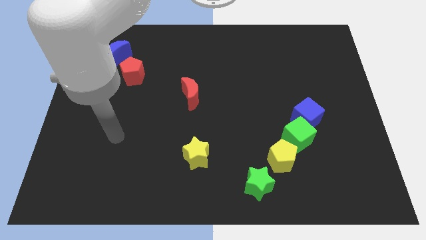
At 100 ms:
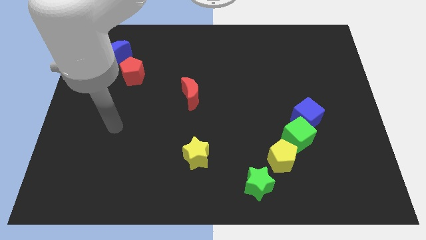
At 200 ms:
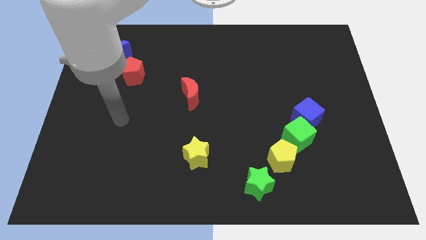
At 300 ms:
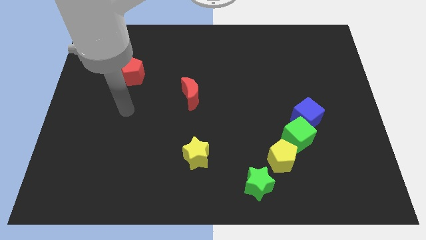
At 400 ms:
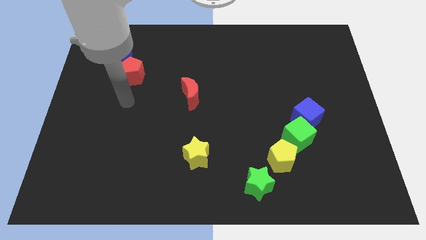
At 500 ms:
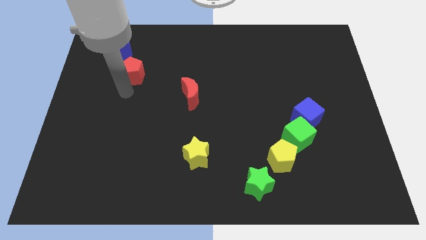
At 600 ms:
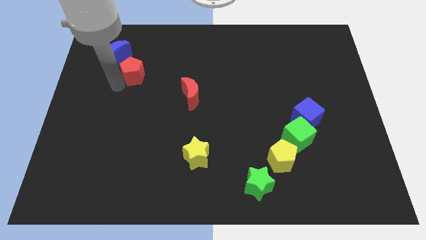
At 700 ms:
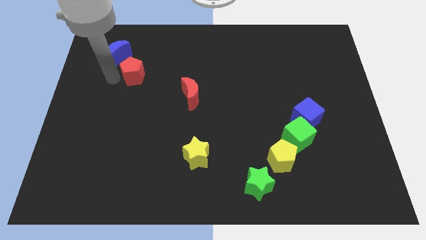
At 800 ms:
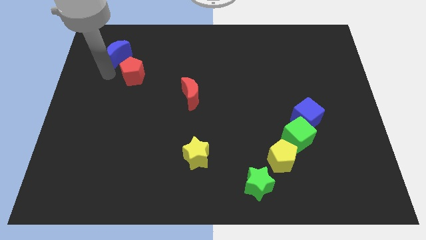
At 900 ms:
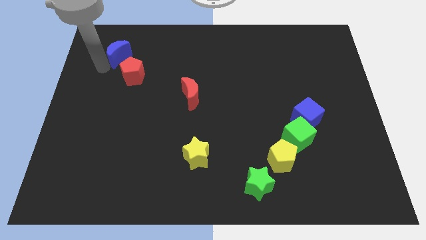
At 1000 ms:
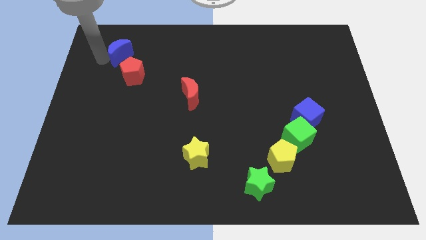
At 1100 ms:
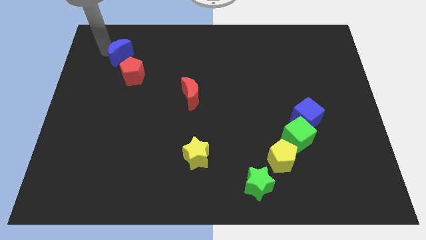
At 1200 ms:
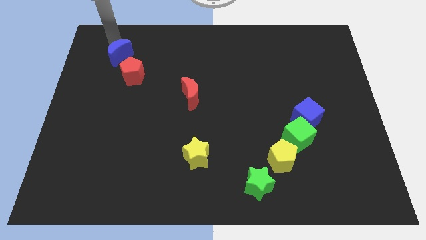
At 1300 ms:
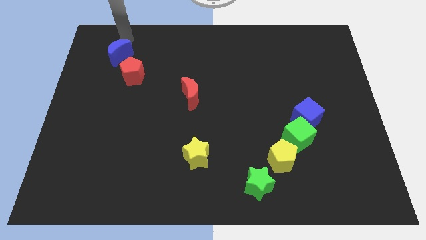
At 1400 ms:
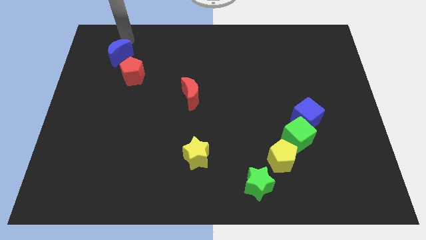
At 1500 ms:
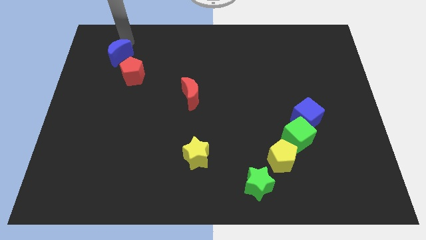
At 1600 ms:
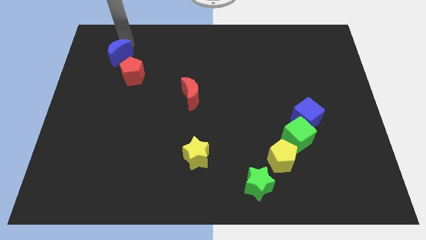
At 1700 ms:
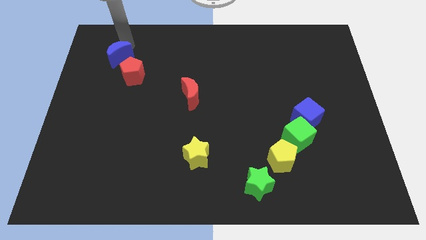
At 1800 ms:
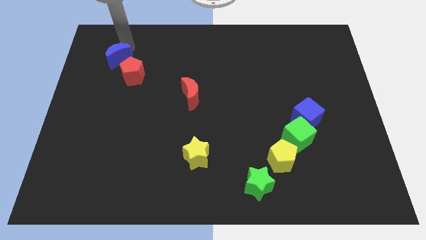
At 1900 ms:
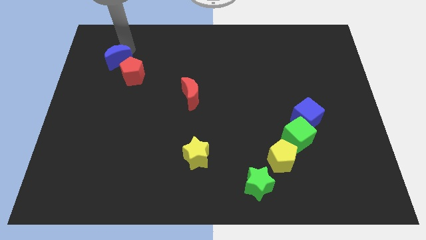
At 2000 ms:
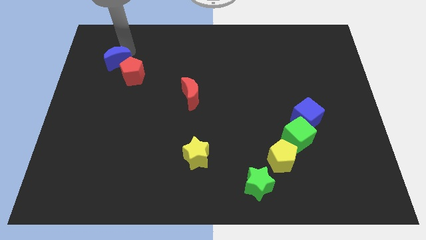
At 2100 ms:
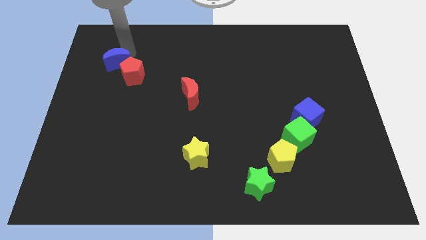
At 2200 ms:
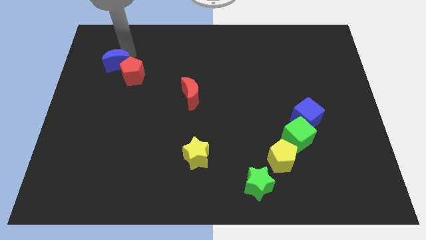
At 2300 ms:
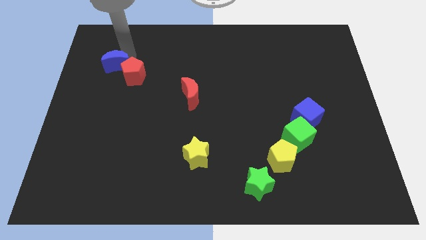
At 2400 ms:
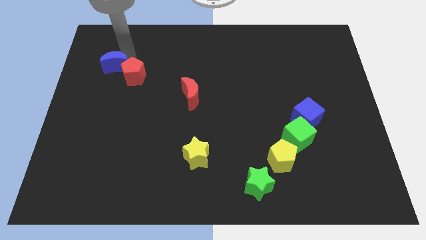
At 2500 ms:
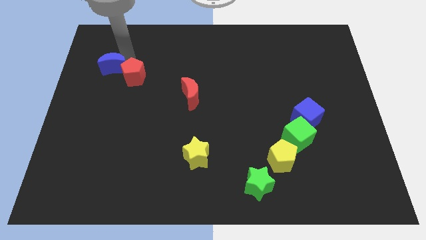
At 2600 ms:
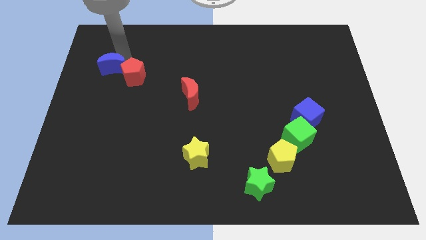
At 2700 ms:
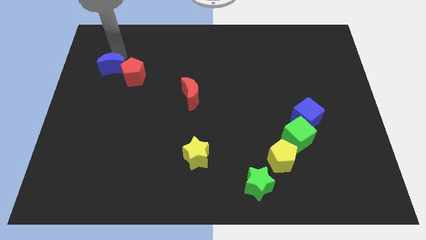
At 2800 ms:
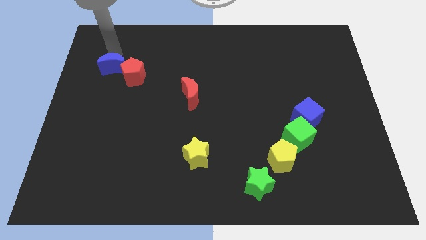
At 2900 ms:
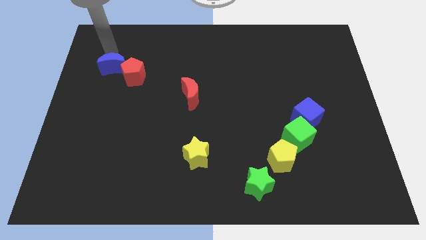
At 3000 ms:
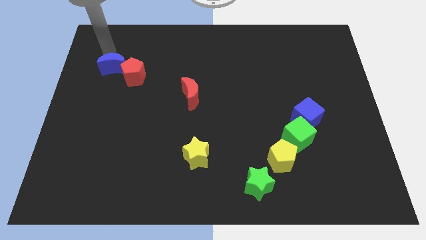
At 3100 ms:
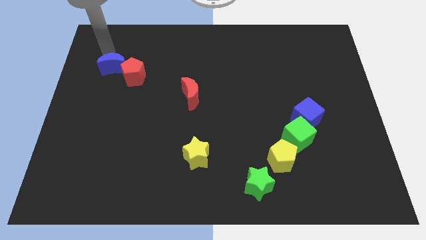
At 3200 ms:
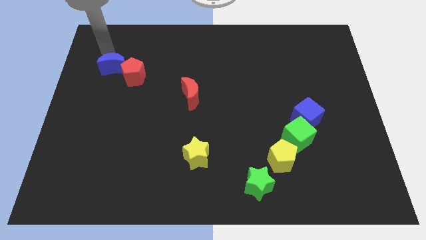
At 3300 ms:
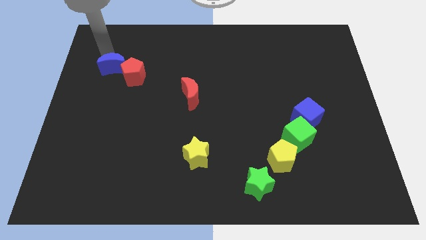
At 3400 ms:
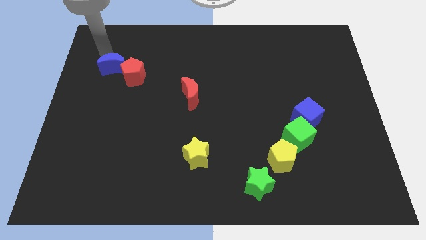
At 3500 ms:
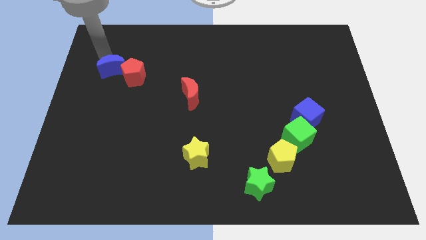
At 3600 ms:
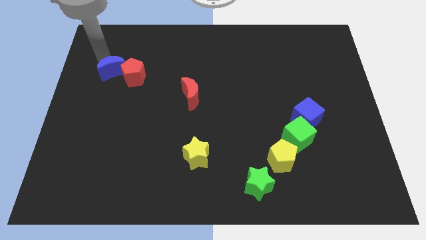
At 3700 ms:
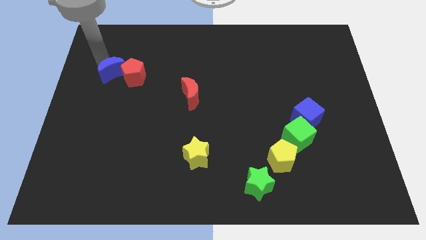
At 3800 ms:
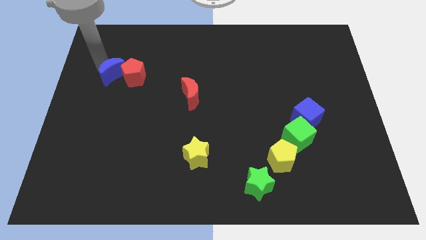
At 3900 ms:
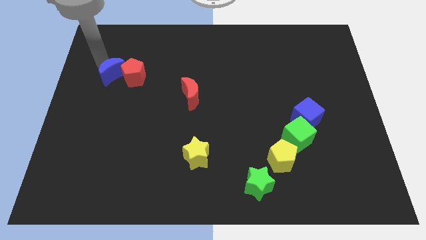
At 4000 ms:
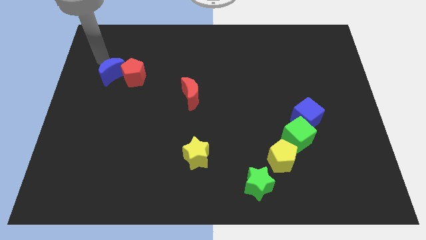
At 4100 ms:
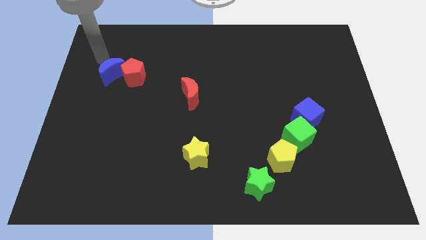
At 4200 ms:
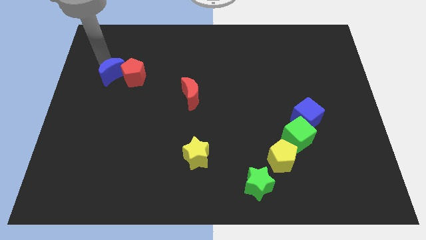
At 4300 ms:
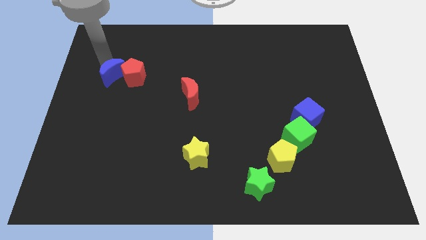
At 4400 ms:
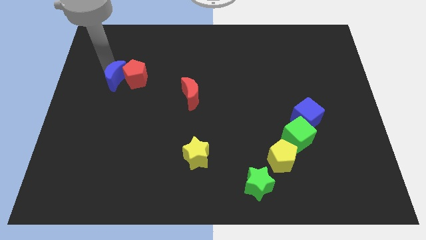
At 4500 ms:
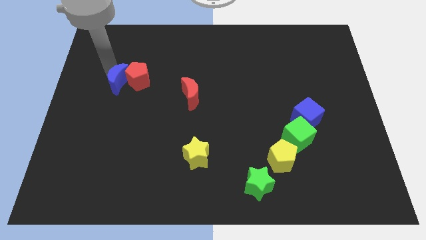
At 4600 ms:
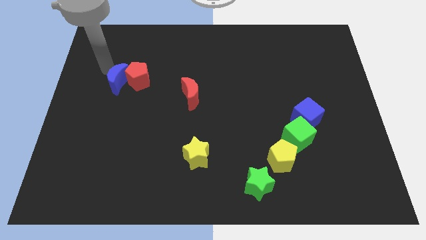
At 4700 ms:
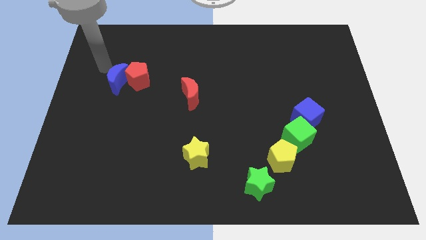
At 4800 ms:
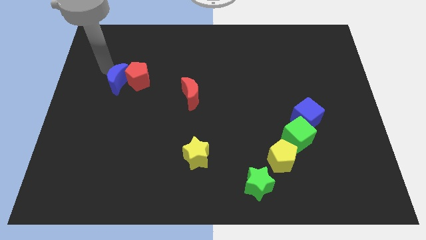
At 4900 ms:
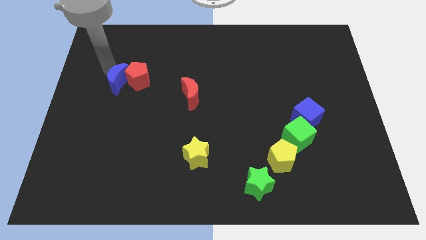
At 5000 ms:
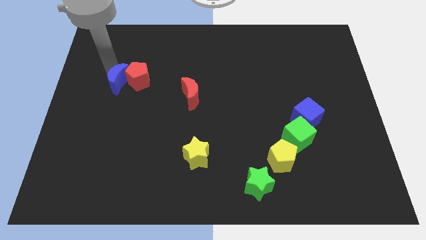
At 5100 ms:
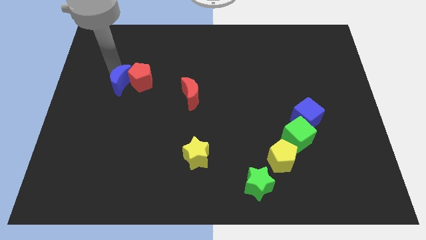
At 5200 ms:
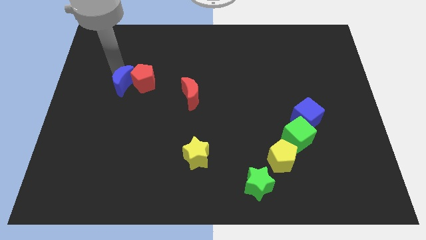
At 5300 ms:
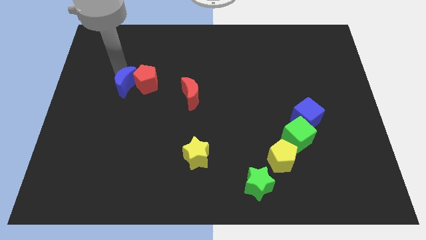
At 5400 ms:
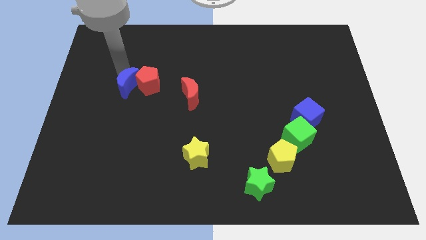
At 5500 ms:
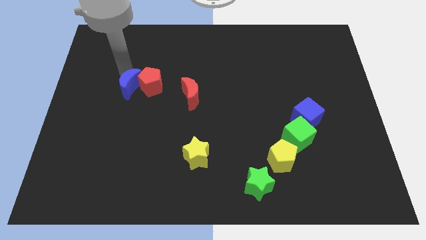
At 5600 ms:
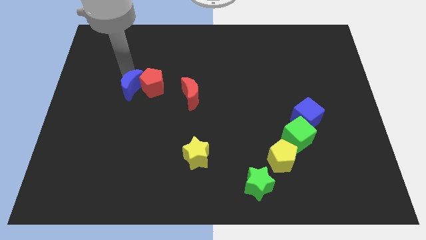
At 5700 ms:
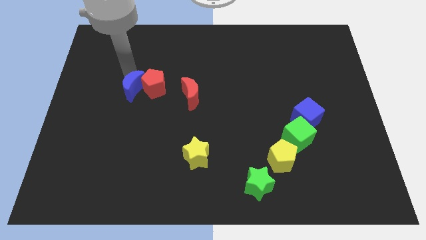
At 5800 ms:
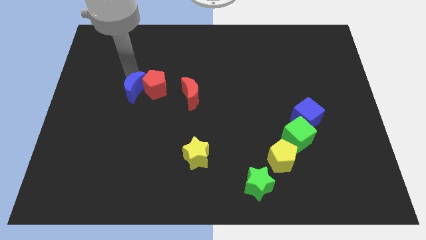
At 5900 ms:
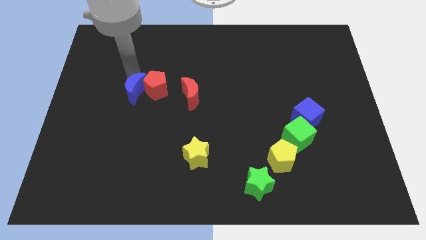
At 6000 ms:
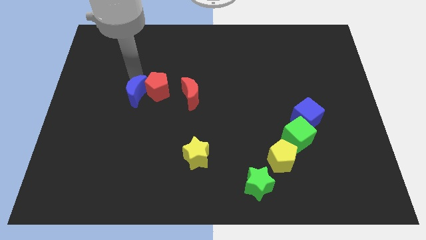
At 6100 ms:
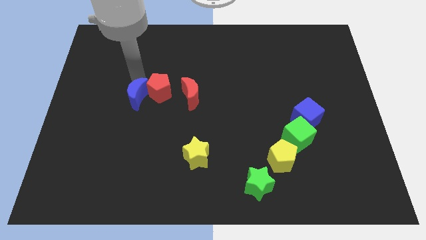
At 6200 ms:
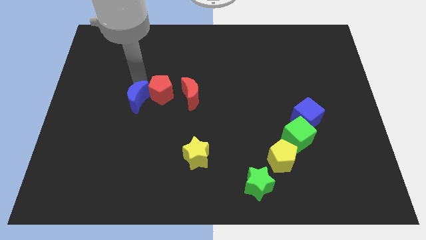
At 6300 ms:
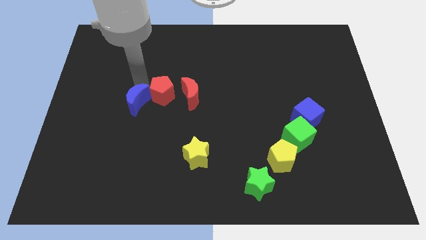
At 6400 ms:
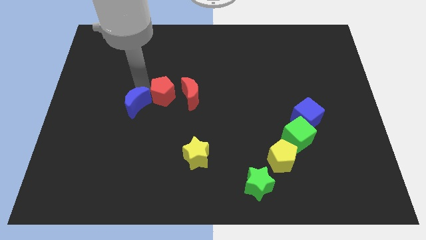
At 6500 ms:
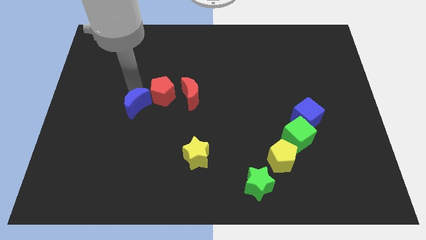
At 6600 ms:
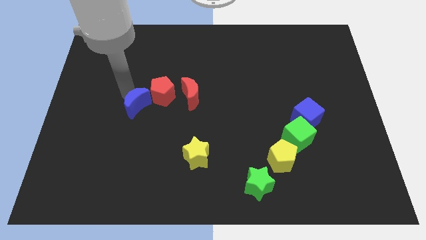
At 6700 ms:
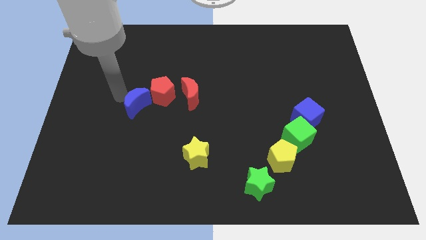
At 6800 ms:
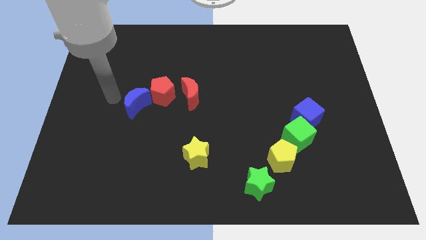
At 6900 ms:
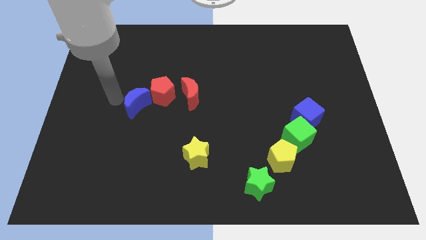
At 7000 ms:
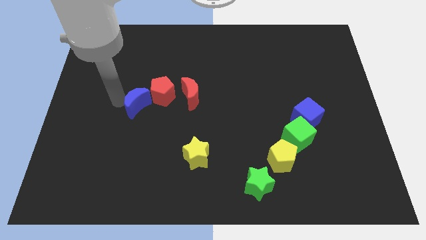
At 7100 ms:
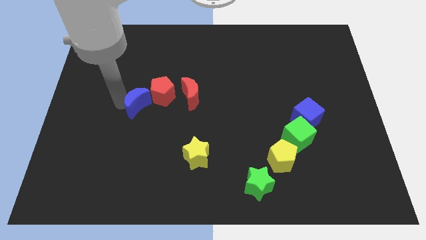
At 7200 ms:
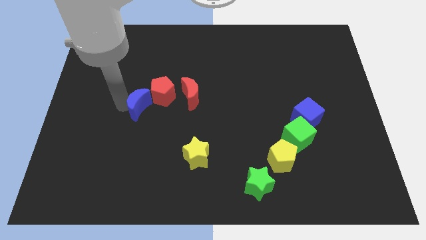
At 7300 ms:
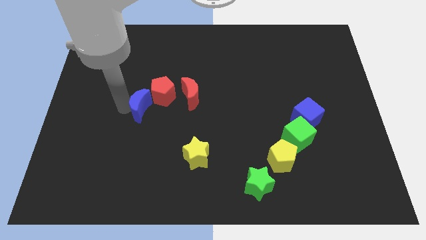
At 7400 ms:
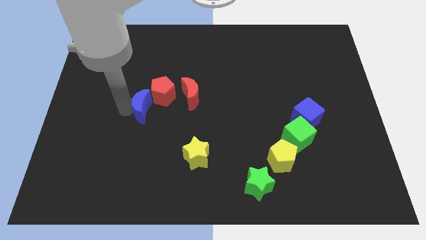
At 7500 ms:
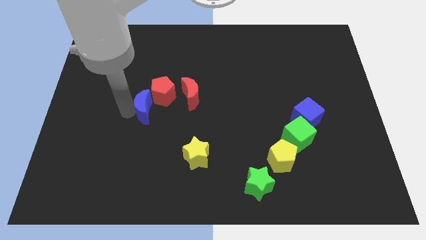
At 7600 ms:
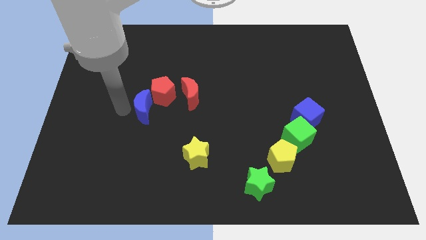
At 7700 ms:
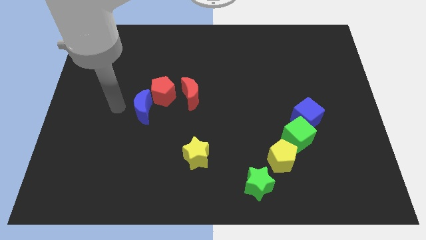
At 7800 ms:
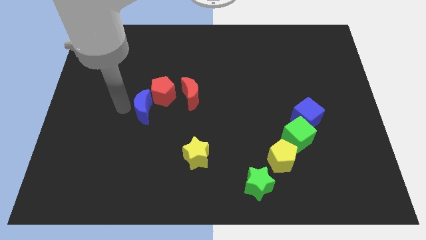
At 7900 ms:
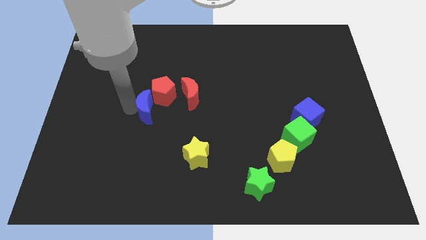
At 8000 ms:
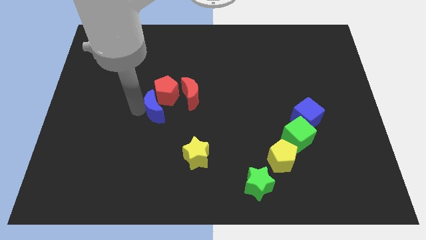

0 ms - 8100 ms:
move the blue moon to the bottom left side of the red moon
